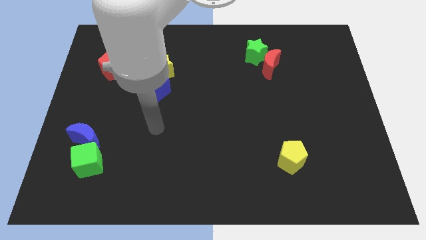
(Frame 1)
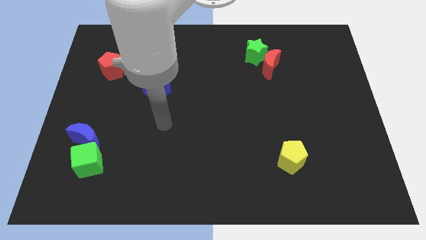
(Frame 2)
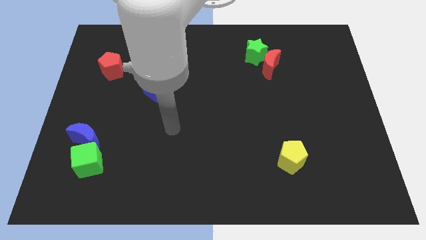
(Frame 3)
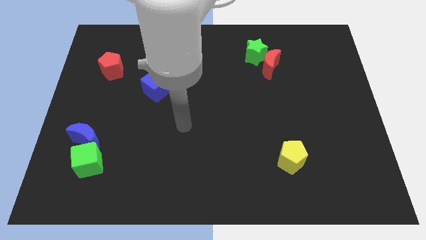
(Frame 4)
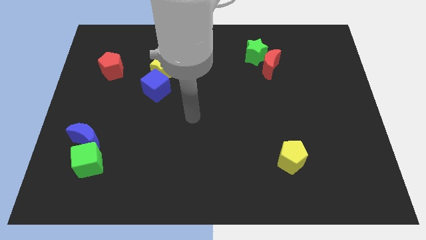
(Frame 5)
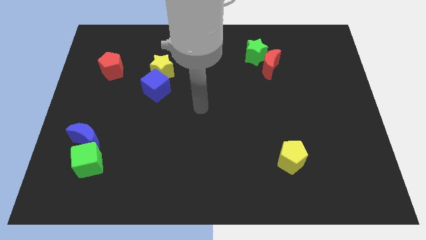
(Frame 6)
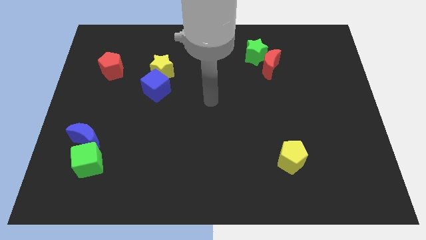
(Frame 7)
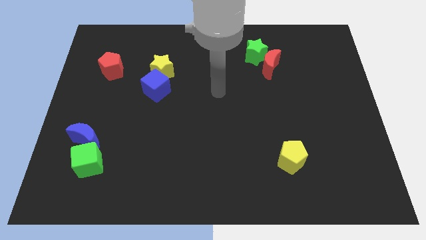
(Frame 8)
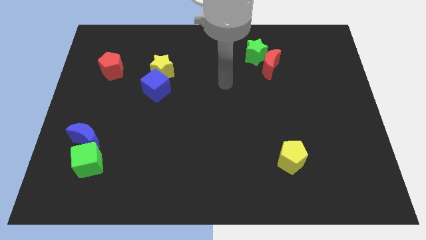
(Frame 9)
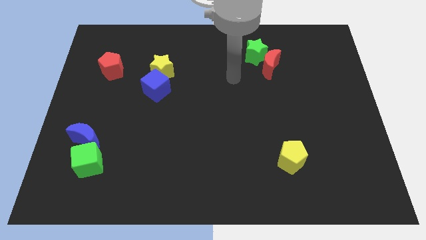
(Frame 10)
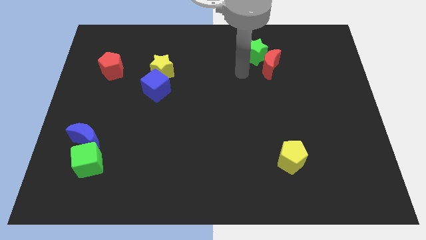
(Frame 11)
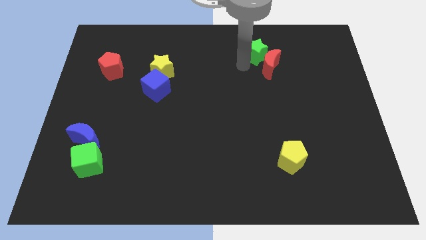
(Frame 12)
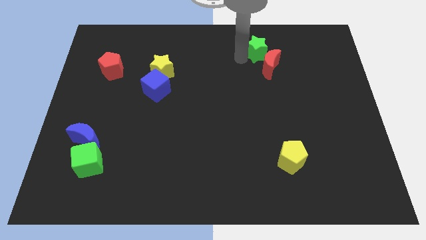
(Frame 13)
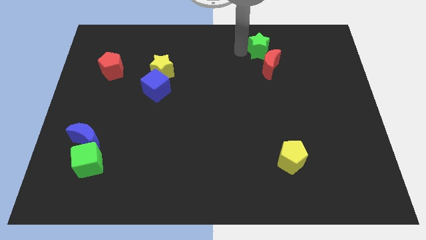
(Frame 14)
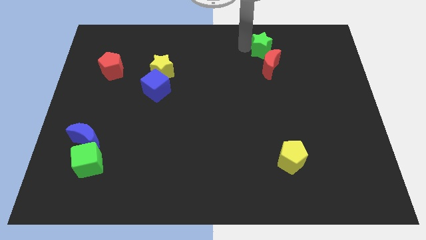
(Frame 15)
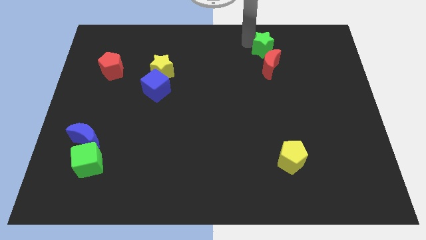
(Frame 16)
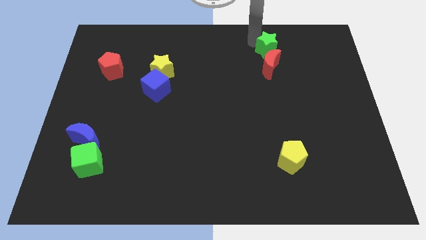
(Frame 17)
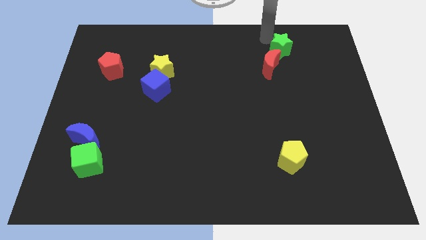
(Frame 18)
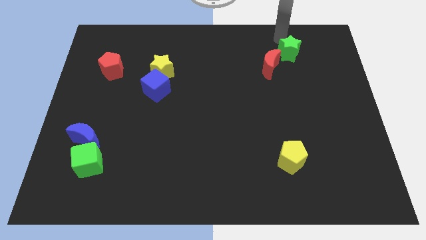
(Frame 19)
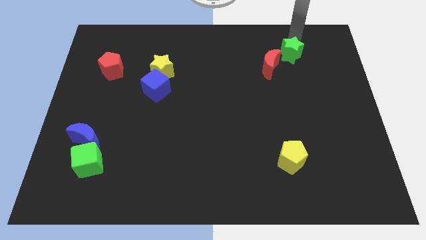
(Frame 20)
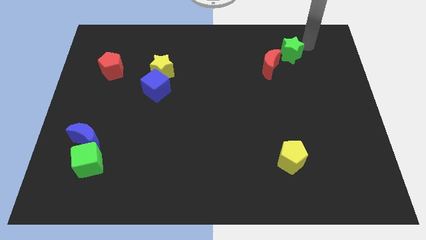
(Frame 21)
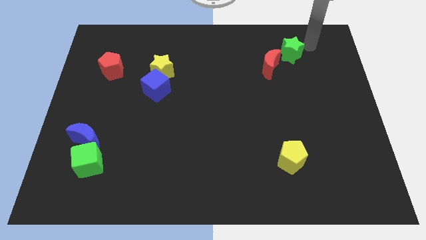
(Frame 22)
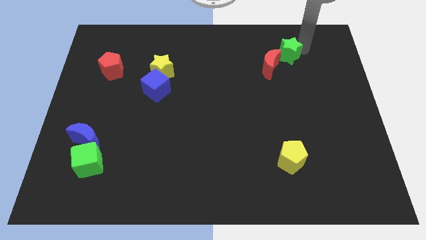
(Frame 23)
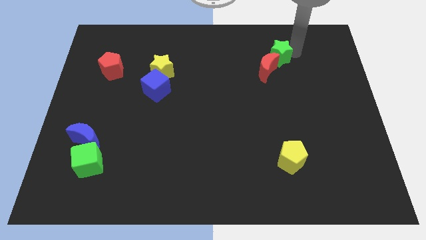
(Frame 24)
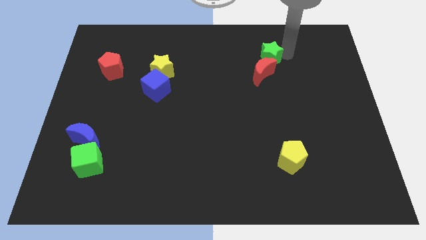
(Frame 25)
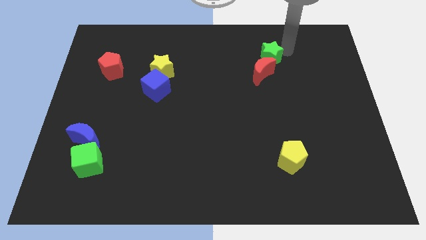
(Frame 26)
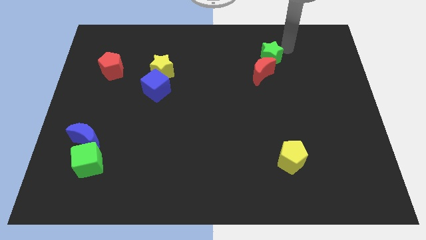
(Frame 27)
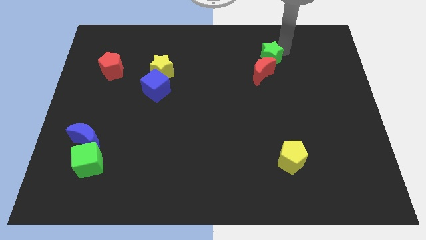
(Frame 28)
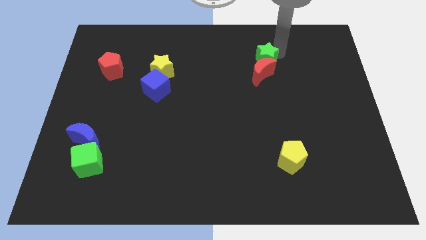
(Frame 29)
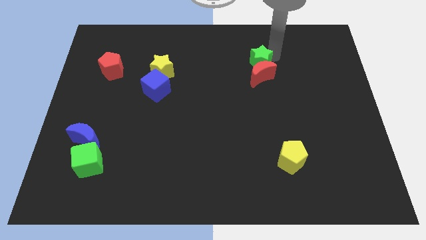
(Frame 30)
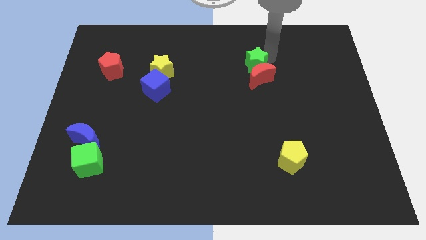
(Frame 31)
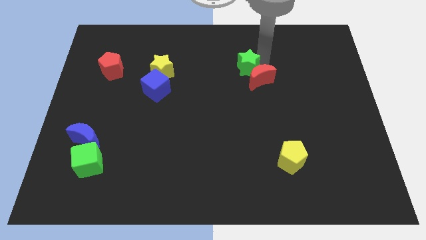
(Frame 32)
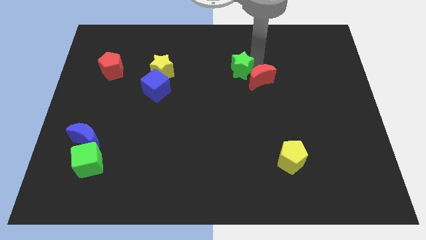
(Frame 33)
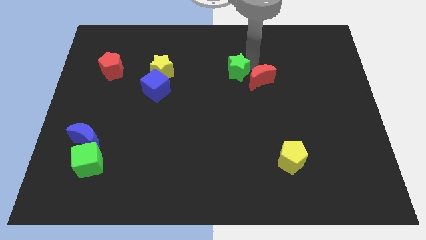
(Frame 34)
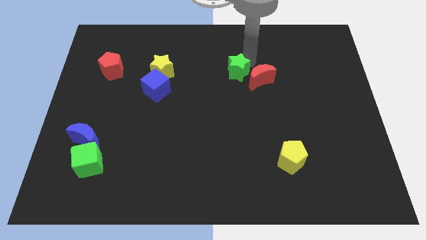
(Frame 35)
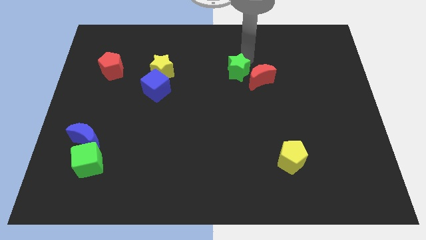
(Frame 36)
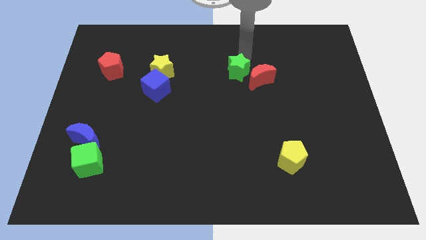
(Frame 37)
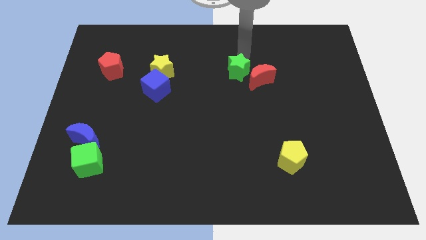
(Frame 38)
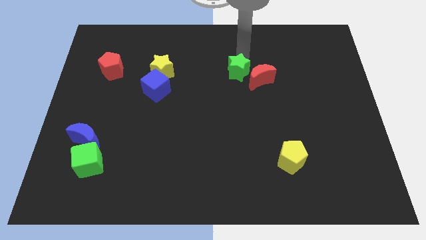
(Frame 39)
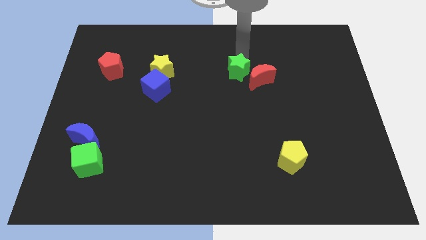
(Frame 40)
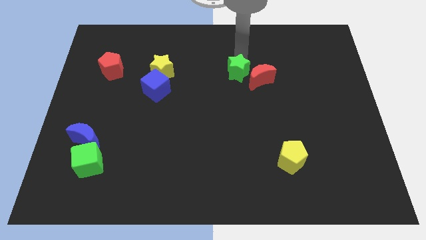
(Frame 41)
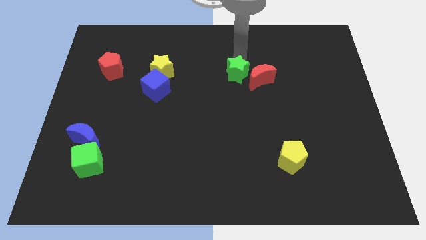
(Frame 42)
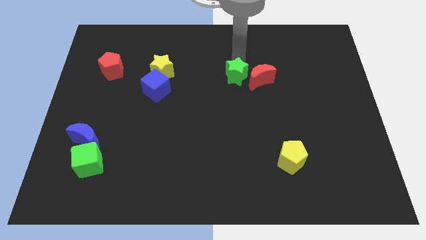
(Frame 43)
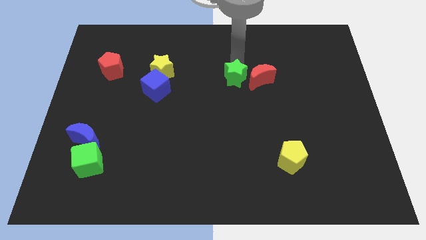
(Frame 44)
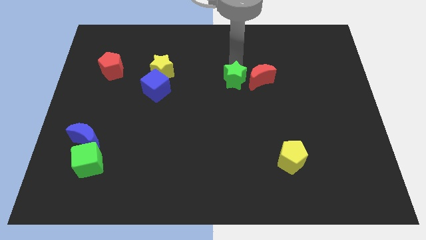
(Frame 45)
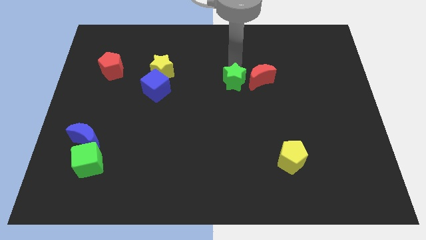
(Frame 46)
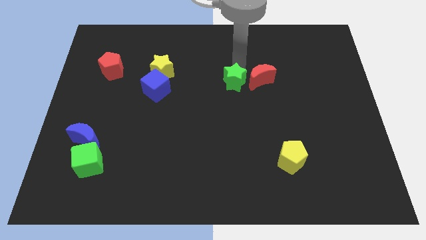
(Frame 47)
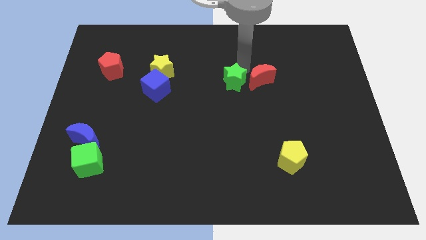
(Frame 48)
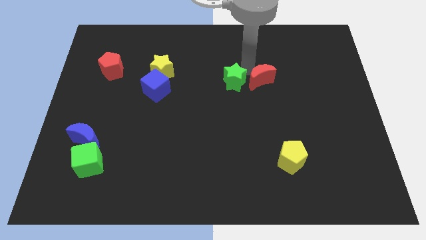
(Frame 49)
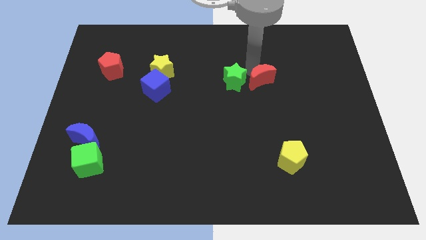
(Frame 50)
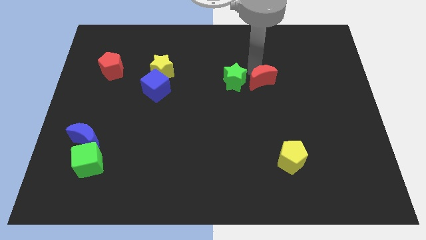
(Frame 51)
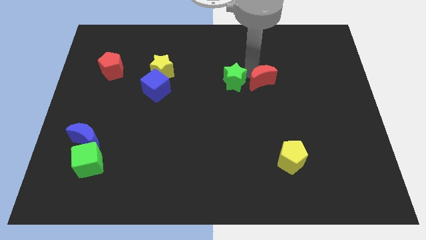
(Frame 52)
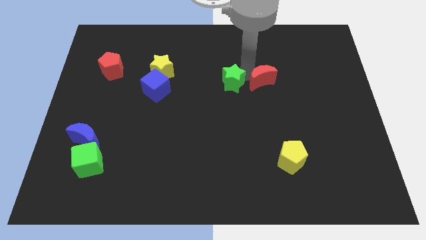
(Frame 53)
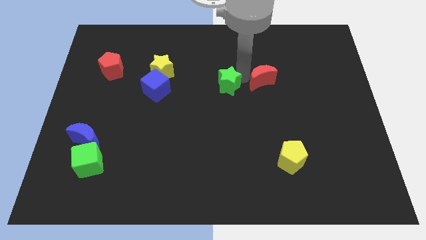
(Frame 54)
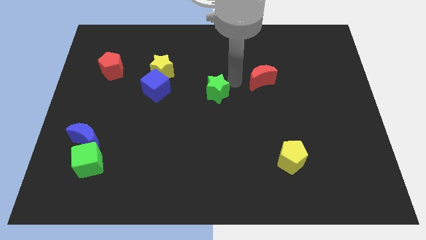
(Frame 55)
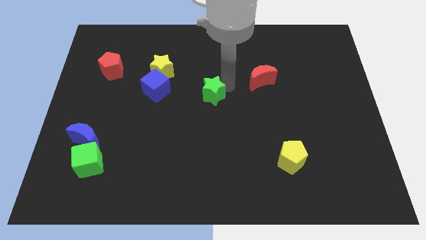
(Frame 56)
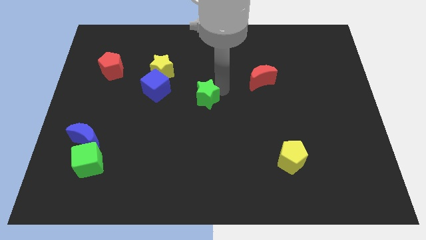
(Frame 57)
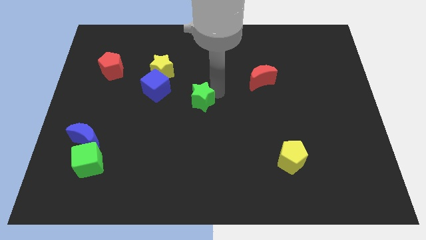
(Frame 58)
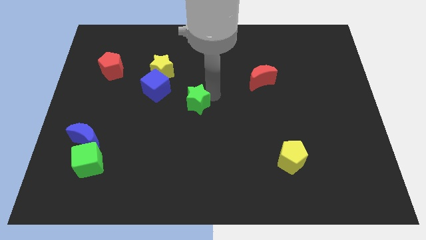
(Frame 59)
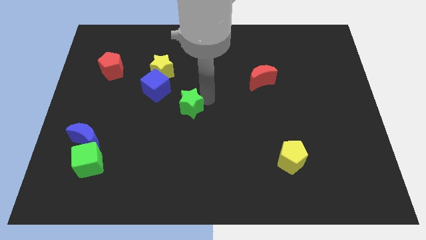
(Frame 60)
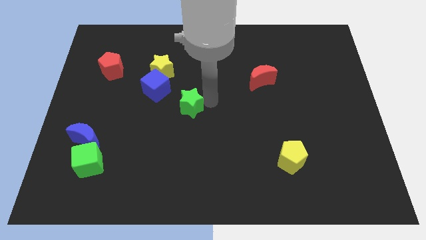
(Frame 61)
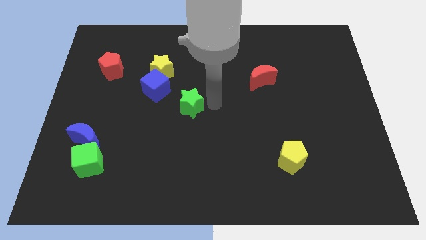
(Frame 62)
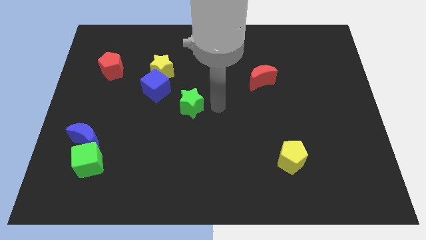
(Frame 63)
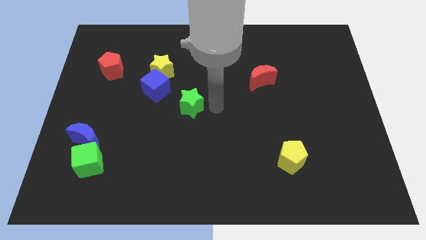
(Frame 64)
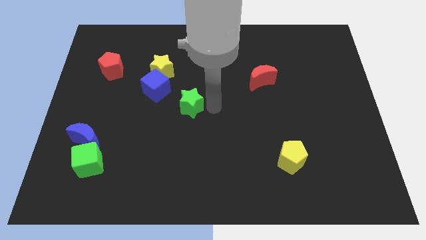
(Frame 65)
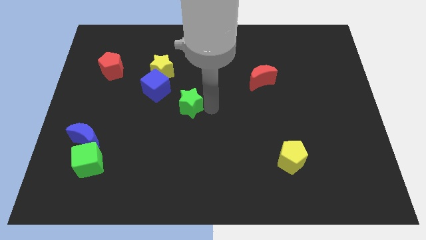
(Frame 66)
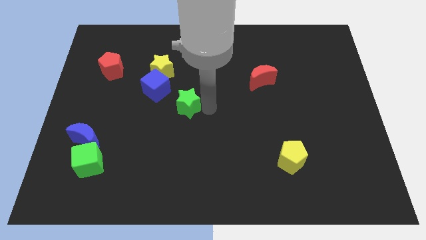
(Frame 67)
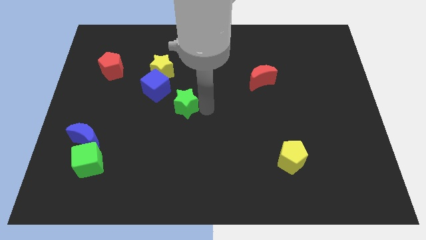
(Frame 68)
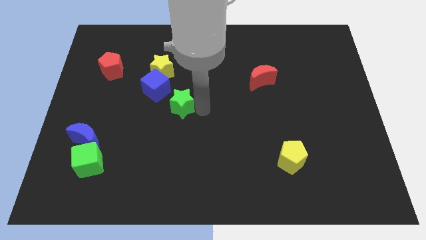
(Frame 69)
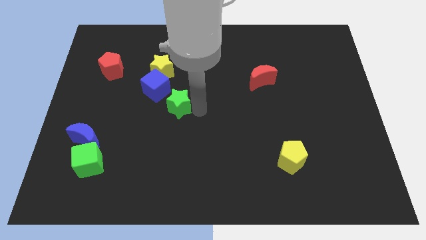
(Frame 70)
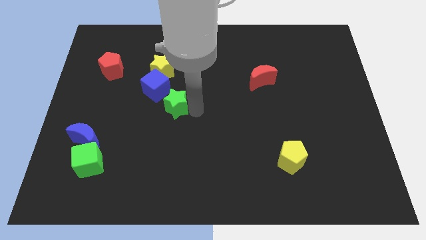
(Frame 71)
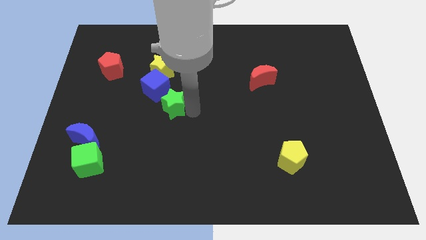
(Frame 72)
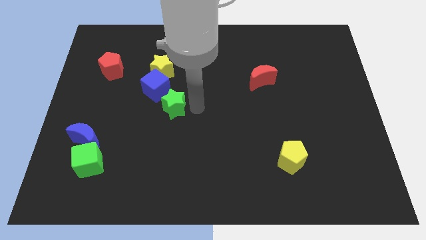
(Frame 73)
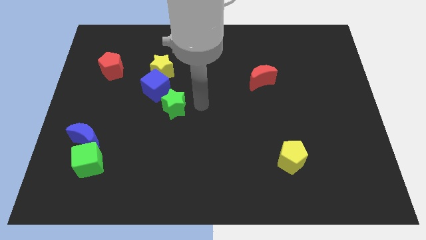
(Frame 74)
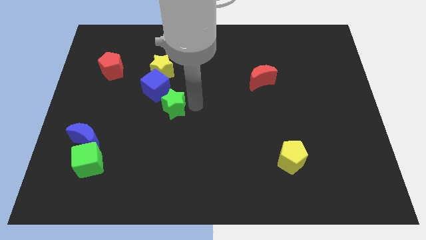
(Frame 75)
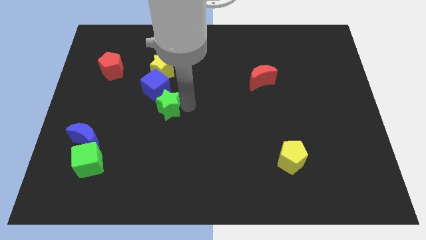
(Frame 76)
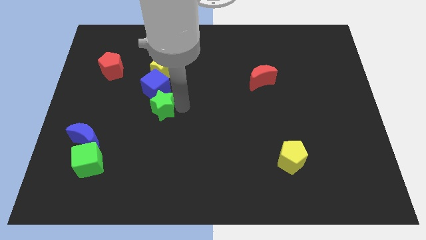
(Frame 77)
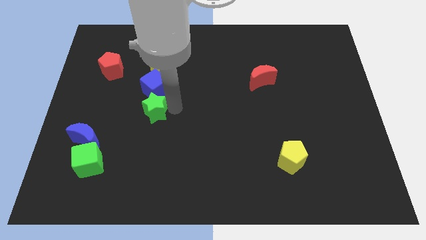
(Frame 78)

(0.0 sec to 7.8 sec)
put the green star to the bottom left of the blue cube
